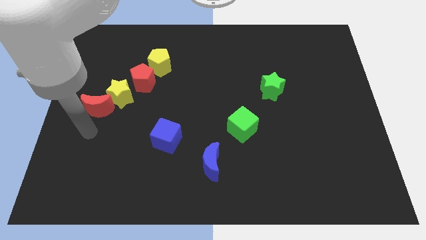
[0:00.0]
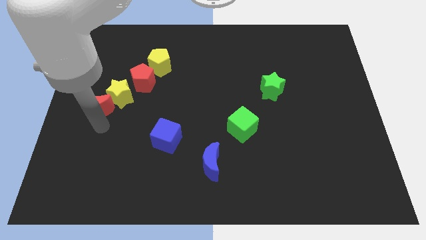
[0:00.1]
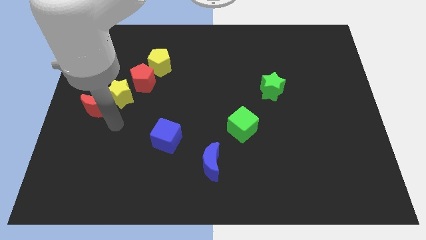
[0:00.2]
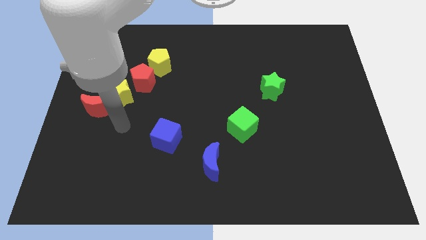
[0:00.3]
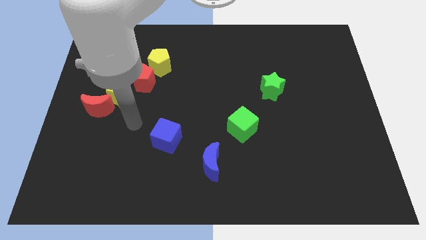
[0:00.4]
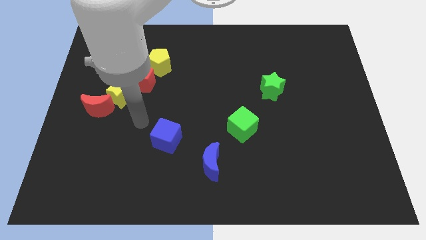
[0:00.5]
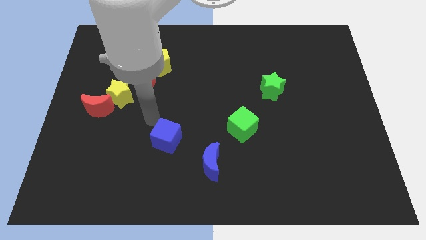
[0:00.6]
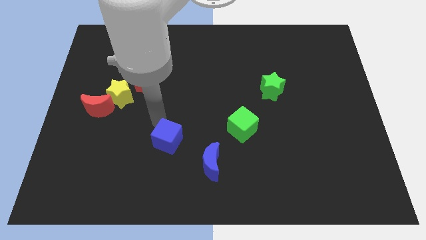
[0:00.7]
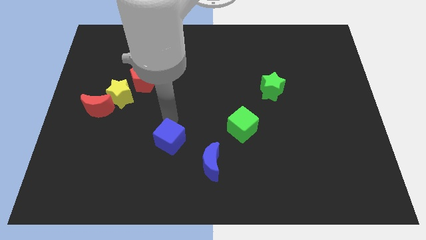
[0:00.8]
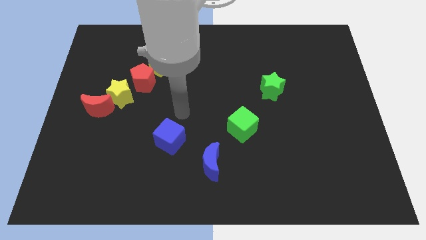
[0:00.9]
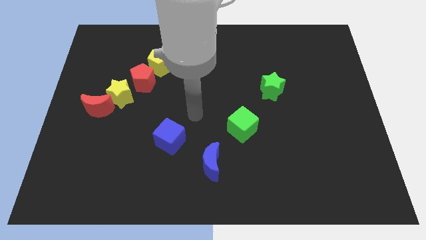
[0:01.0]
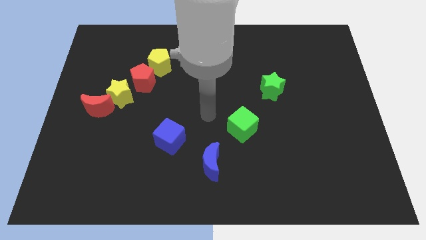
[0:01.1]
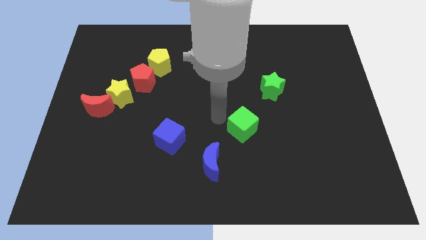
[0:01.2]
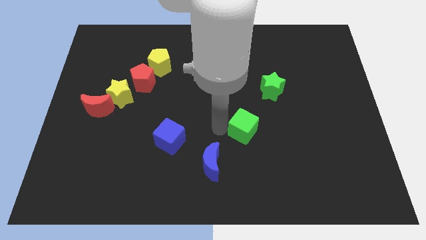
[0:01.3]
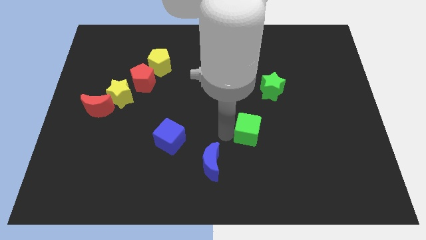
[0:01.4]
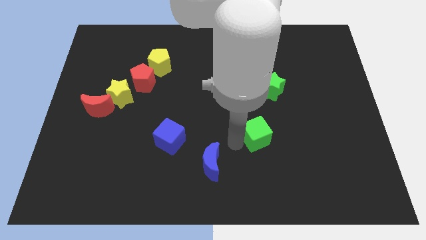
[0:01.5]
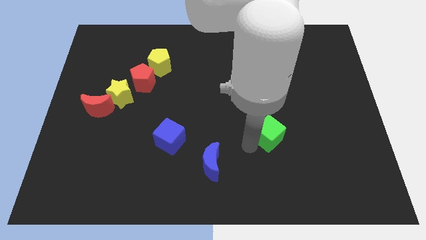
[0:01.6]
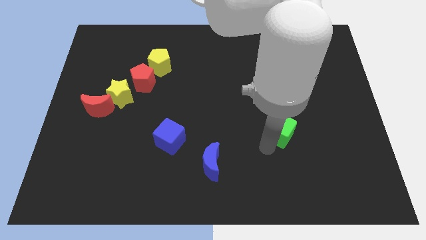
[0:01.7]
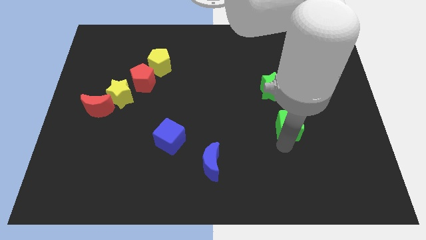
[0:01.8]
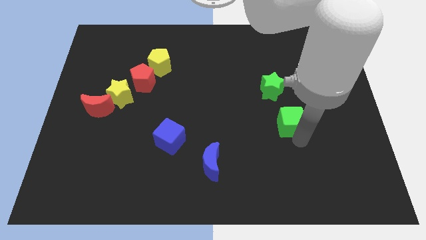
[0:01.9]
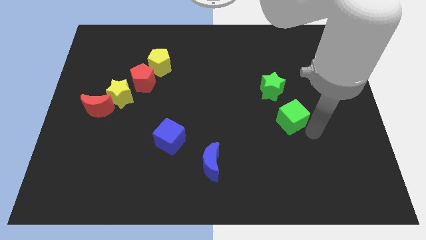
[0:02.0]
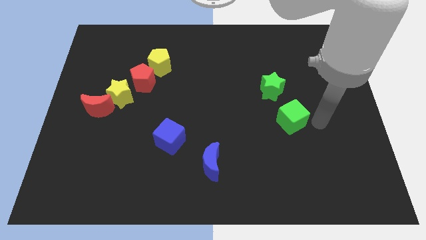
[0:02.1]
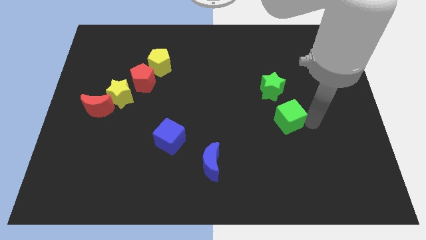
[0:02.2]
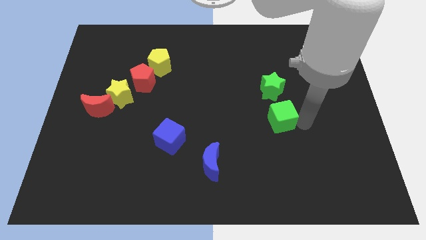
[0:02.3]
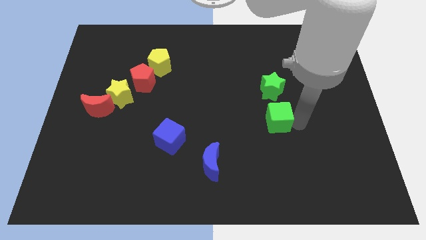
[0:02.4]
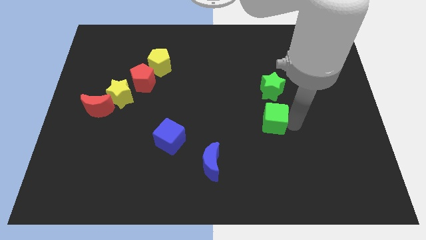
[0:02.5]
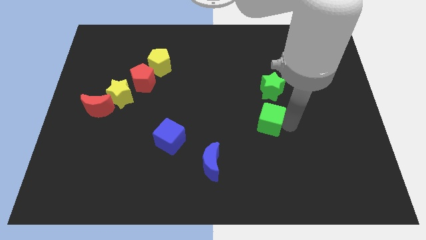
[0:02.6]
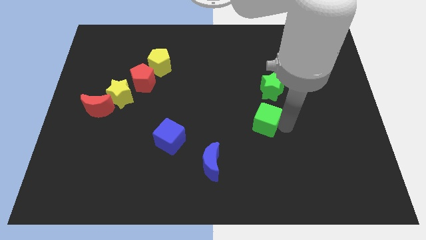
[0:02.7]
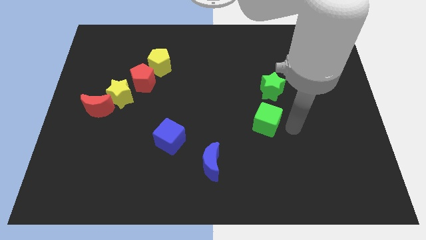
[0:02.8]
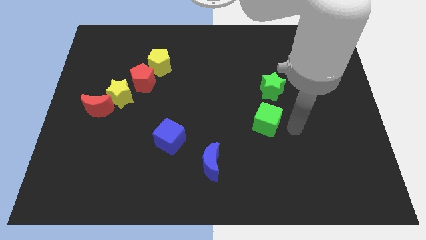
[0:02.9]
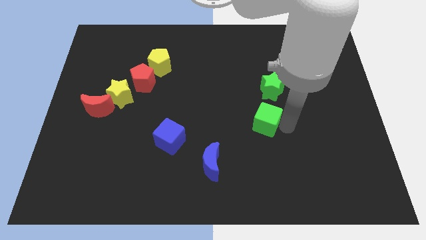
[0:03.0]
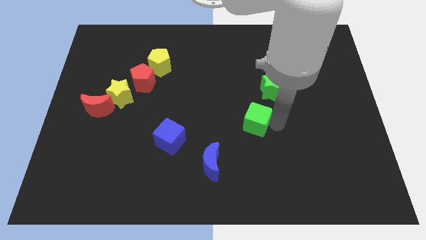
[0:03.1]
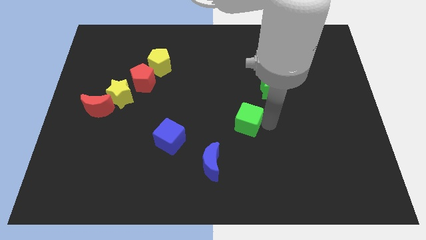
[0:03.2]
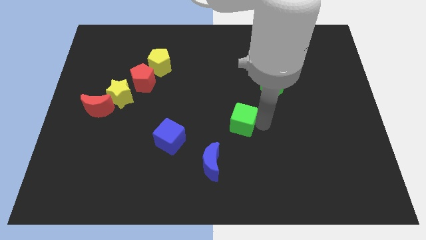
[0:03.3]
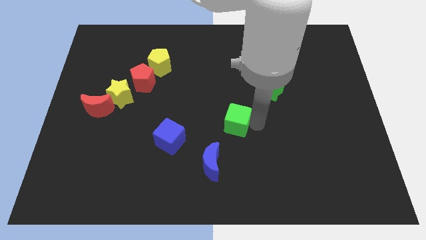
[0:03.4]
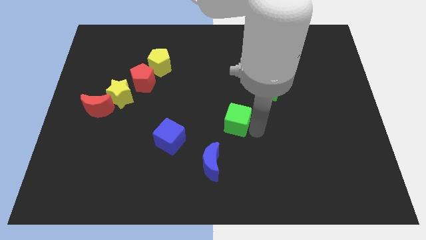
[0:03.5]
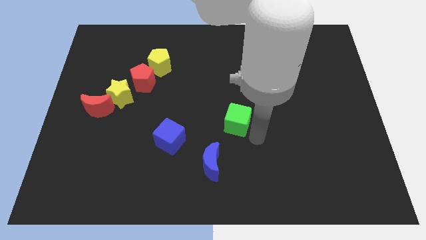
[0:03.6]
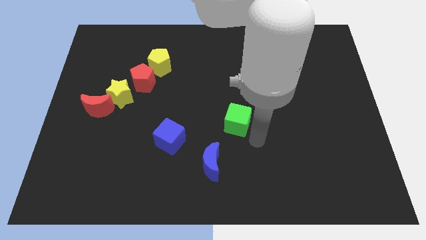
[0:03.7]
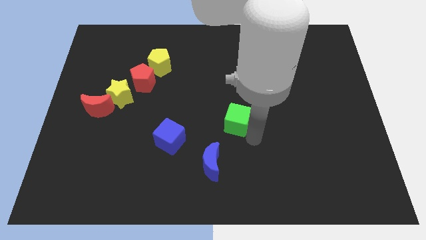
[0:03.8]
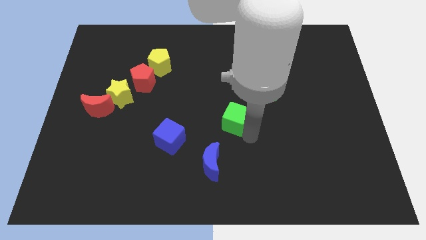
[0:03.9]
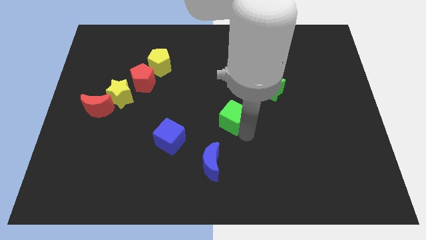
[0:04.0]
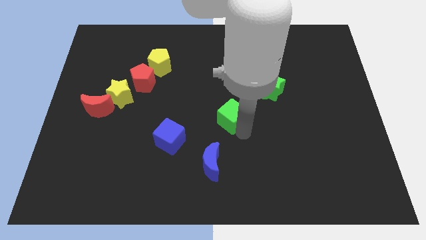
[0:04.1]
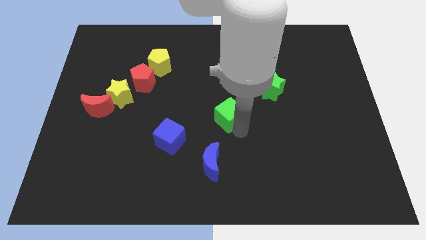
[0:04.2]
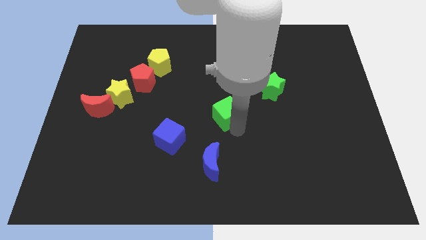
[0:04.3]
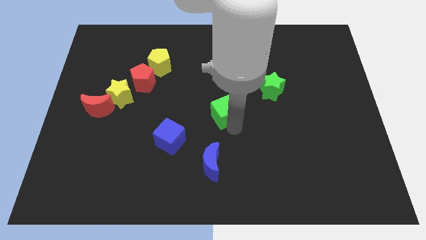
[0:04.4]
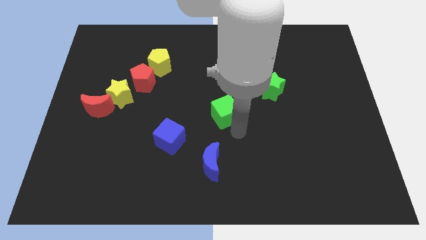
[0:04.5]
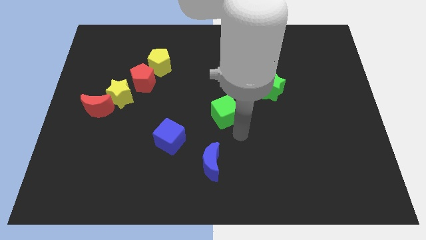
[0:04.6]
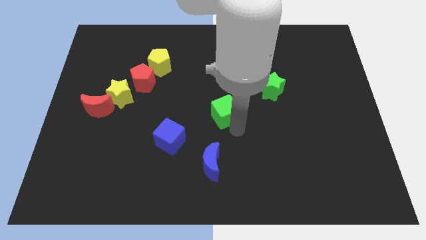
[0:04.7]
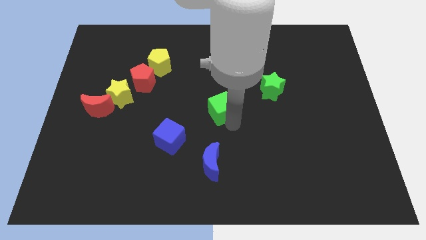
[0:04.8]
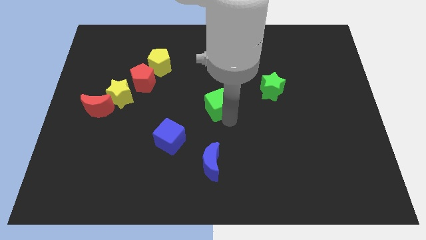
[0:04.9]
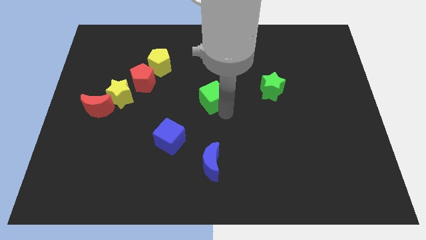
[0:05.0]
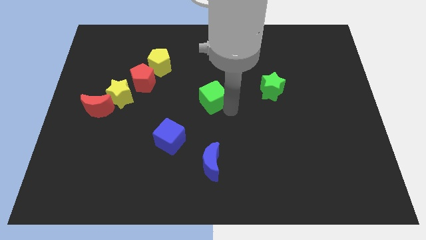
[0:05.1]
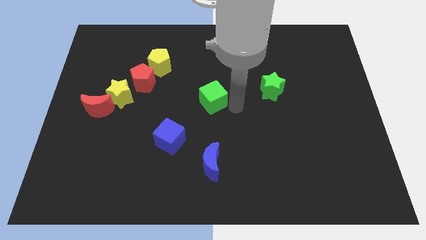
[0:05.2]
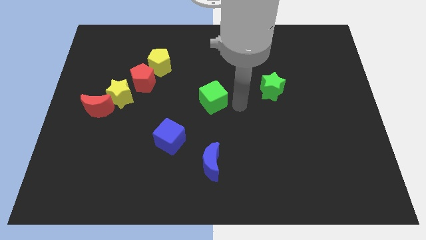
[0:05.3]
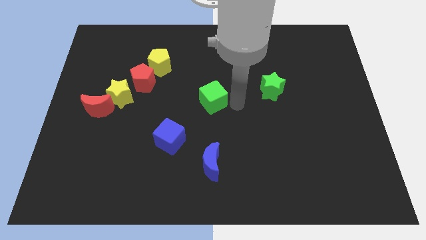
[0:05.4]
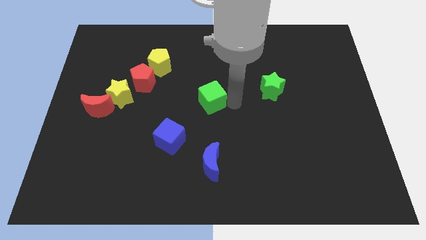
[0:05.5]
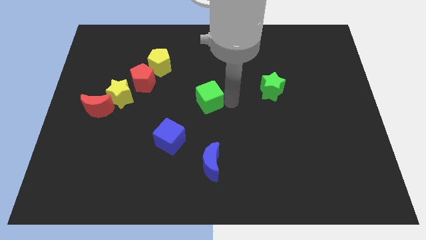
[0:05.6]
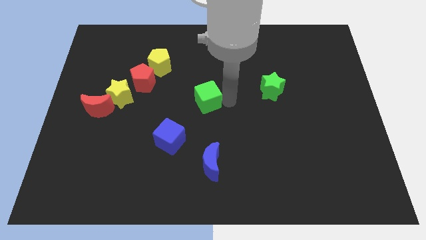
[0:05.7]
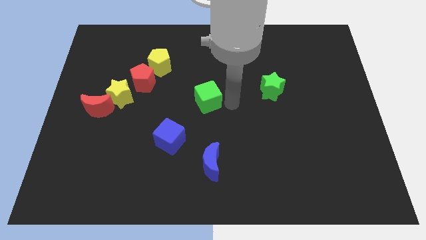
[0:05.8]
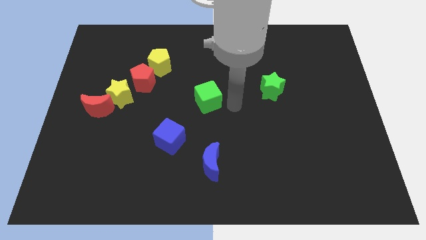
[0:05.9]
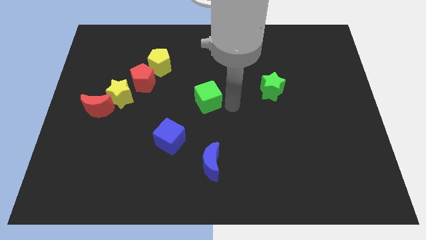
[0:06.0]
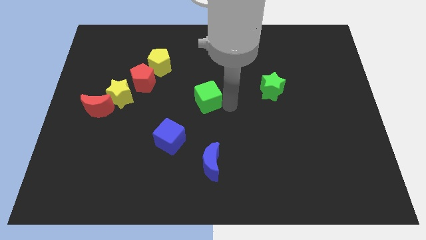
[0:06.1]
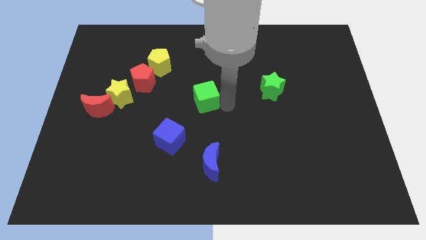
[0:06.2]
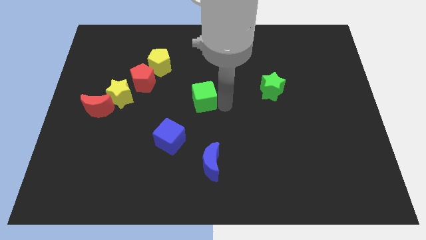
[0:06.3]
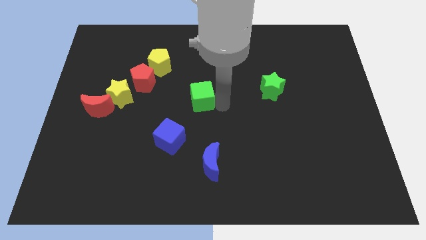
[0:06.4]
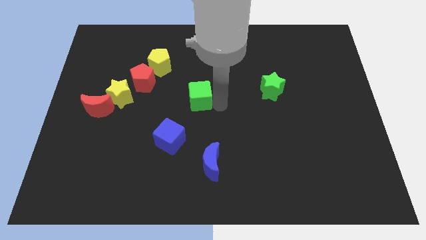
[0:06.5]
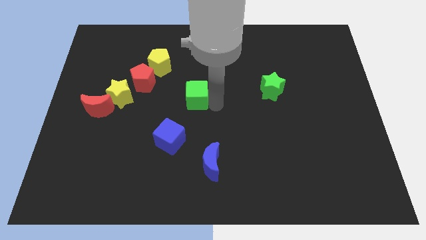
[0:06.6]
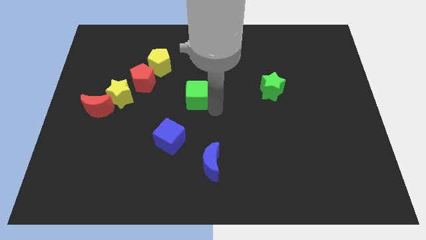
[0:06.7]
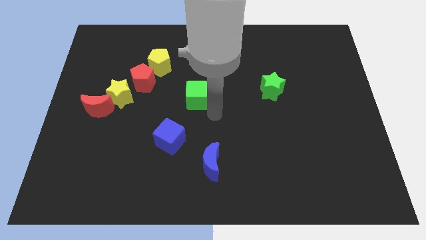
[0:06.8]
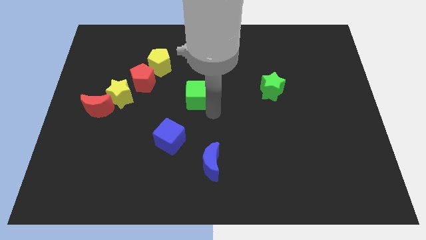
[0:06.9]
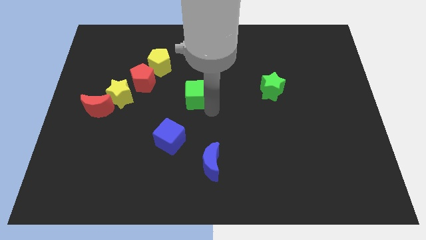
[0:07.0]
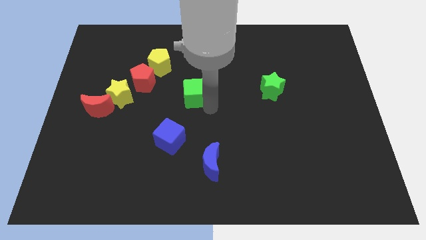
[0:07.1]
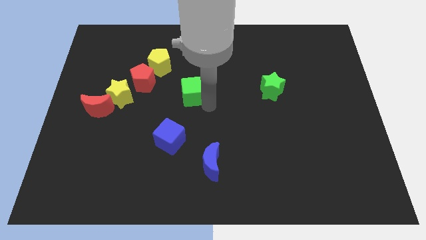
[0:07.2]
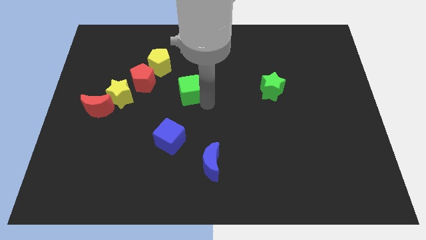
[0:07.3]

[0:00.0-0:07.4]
slide the green cube to the bottom right of the yellow pentagon

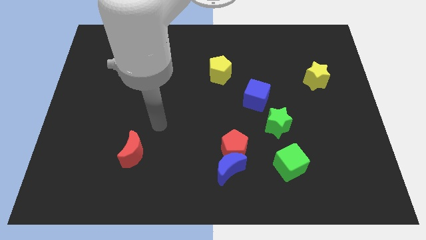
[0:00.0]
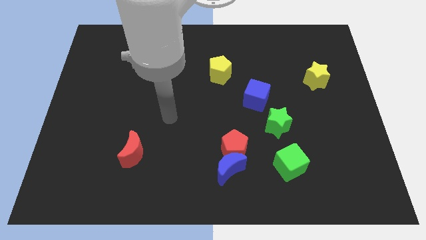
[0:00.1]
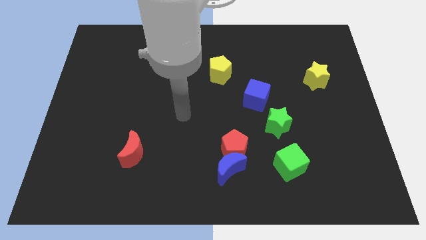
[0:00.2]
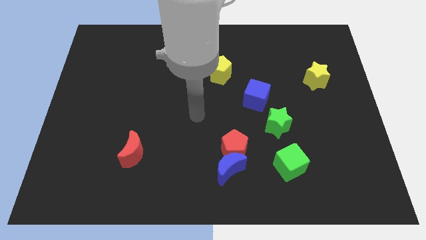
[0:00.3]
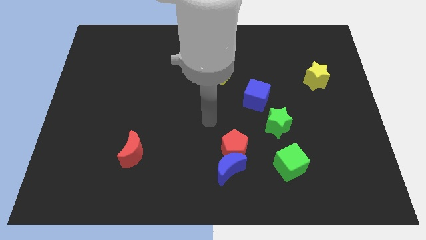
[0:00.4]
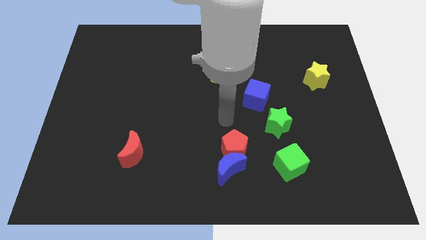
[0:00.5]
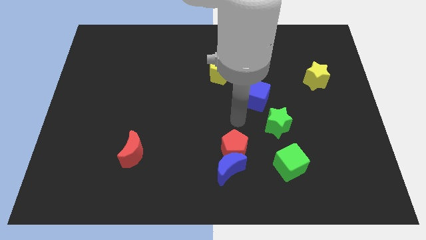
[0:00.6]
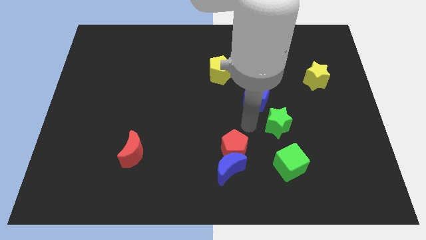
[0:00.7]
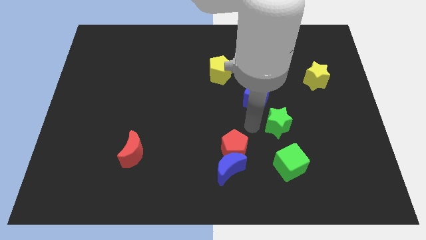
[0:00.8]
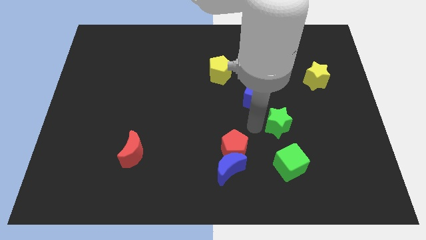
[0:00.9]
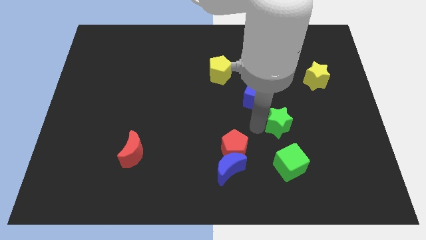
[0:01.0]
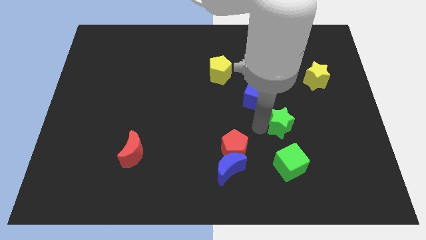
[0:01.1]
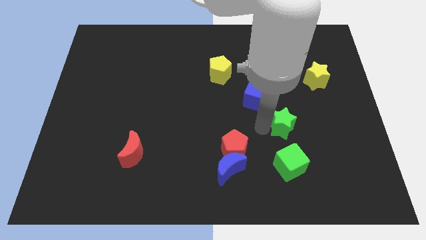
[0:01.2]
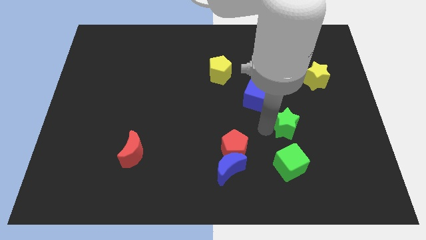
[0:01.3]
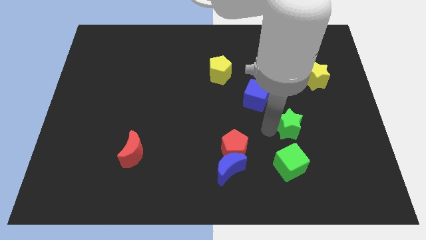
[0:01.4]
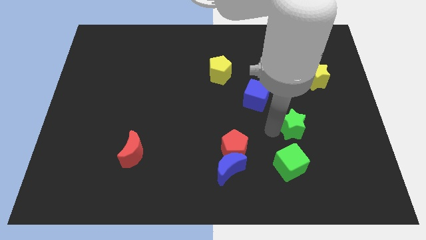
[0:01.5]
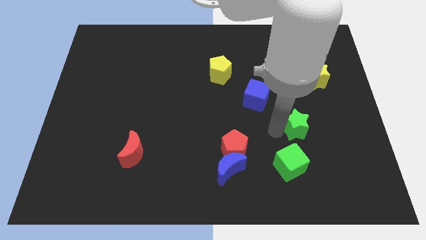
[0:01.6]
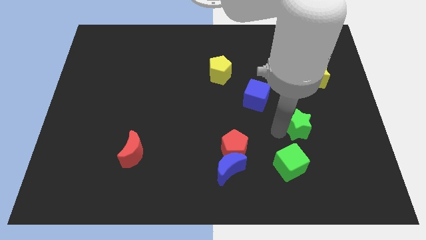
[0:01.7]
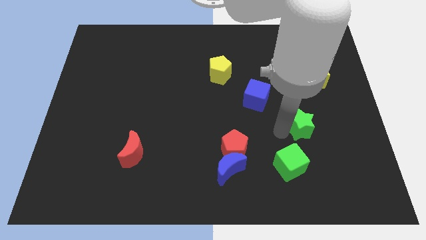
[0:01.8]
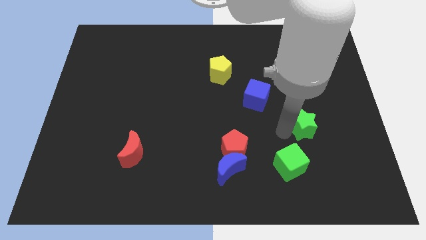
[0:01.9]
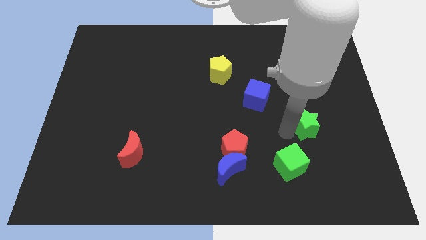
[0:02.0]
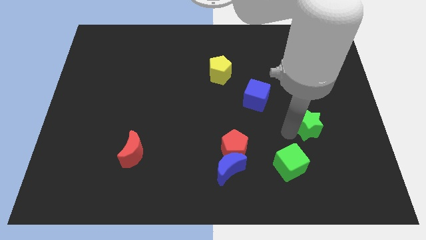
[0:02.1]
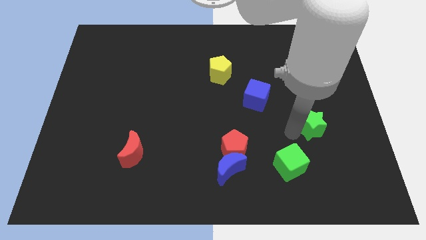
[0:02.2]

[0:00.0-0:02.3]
push the green star below the yellow star
